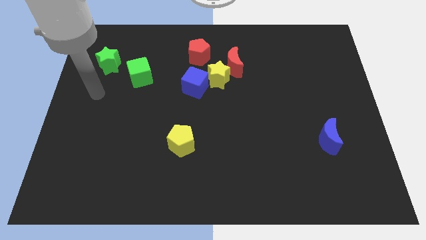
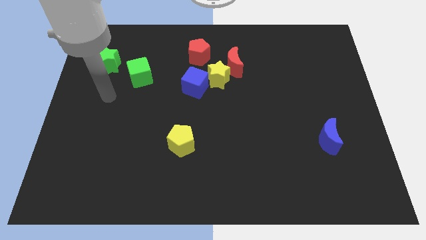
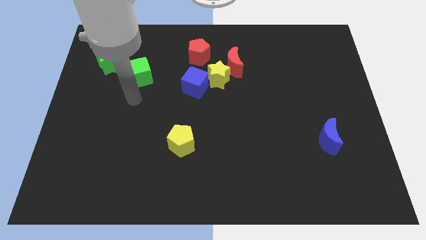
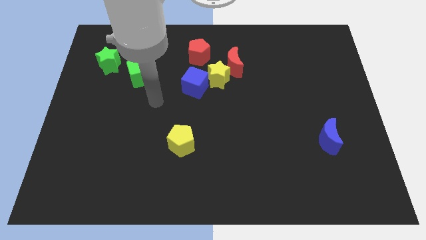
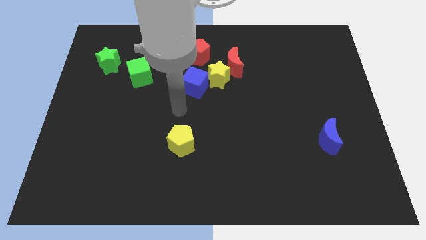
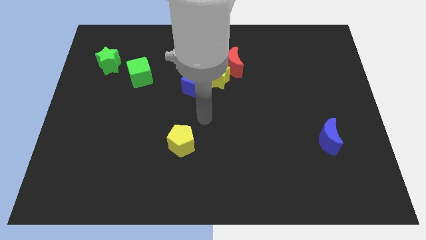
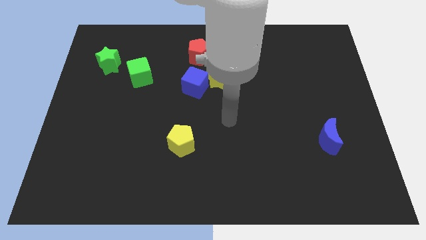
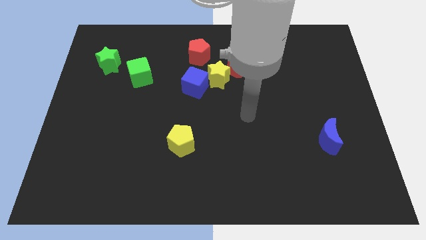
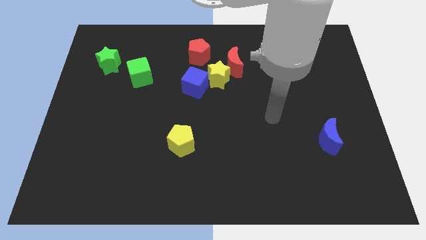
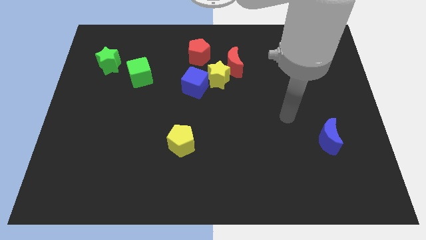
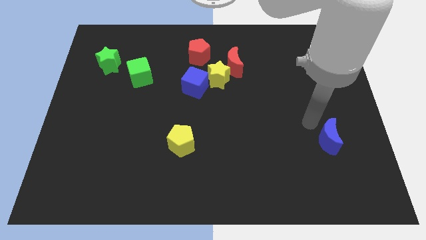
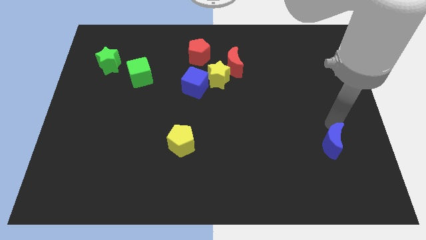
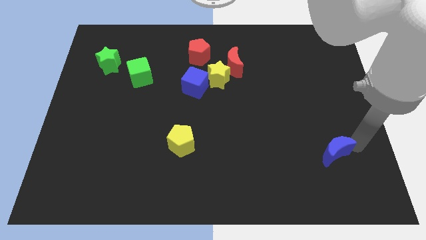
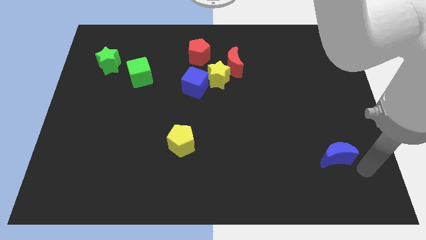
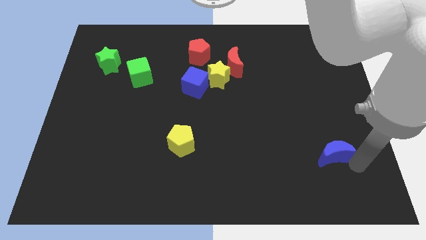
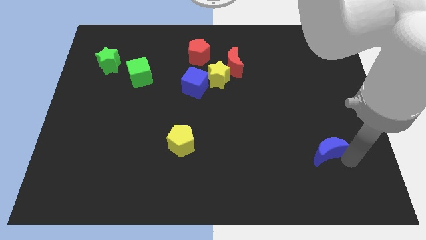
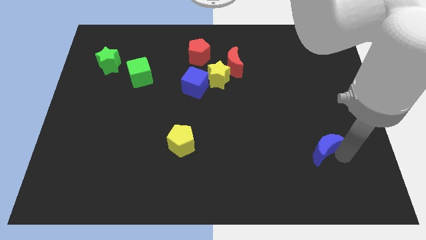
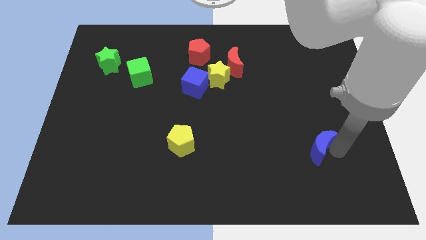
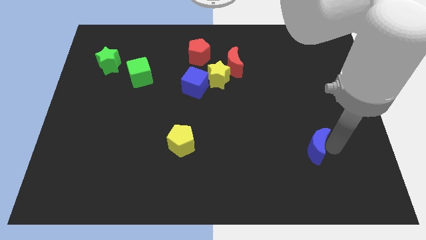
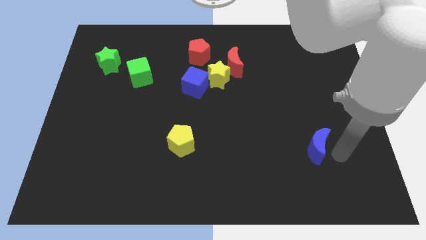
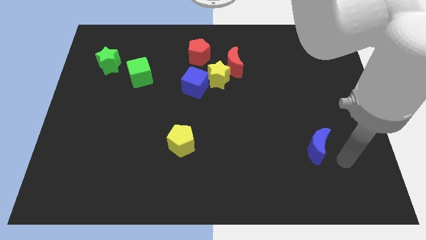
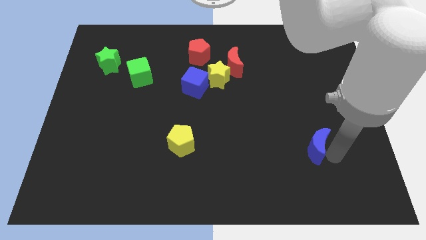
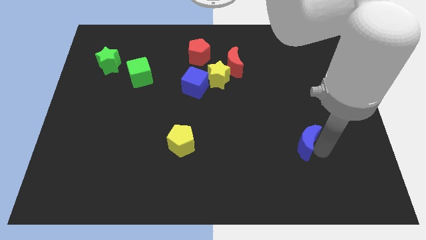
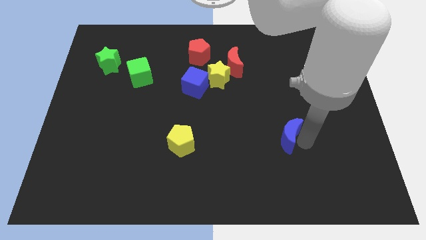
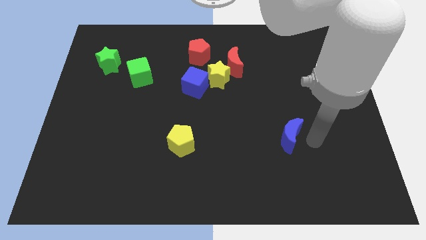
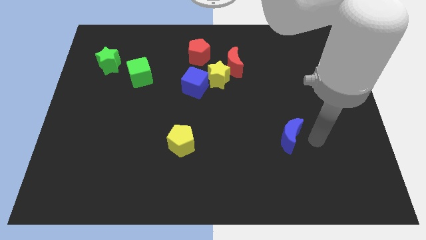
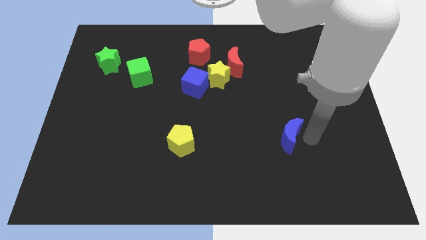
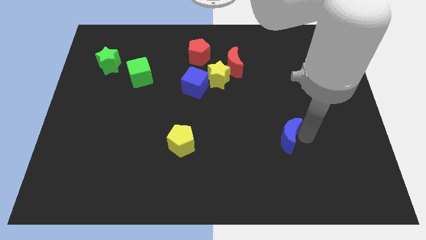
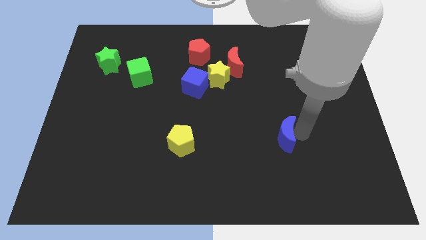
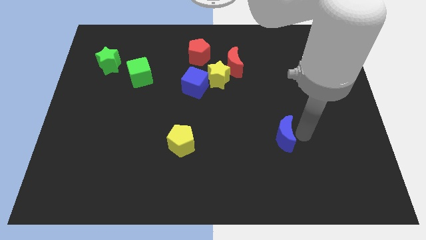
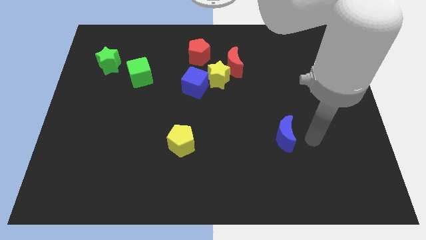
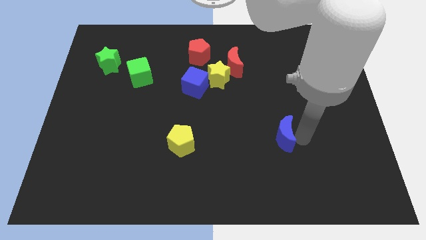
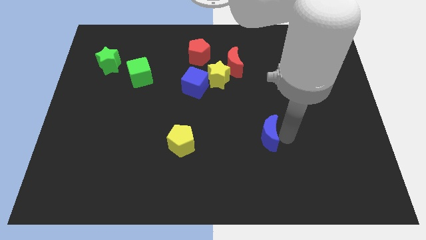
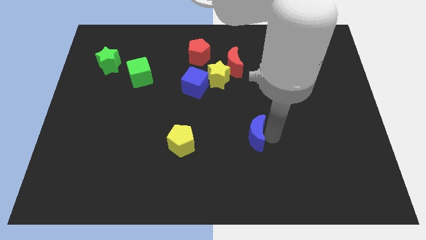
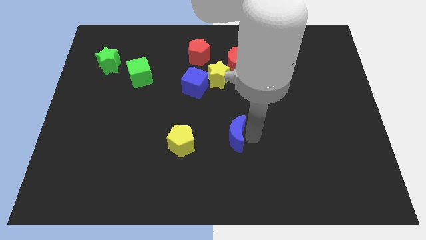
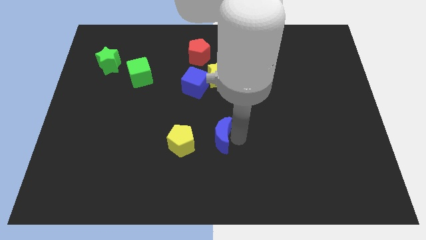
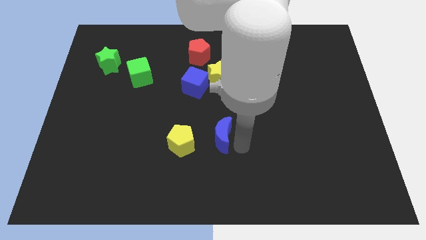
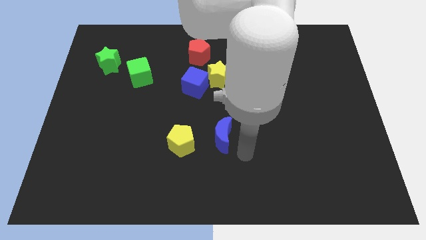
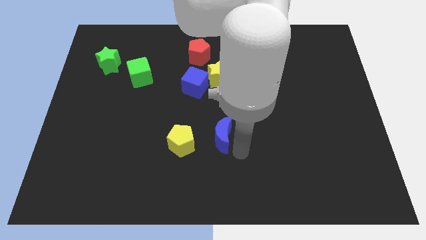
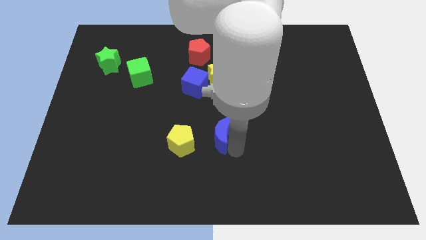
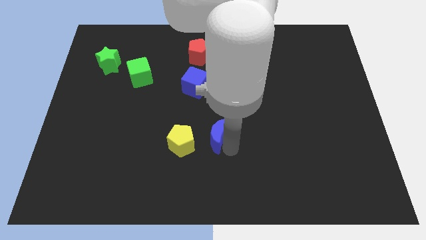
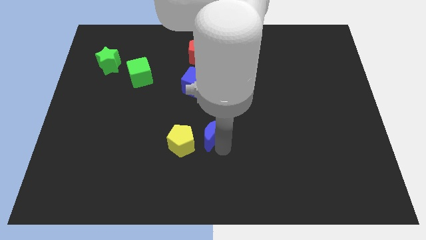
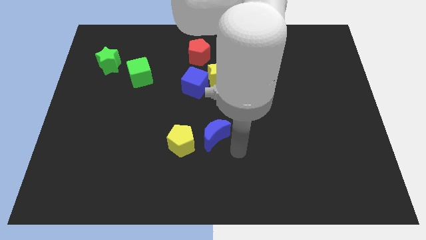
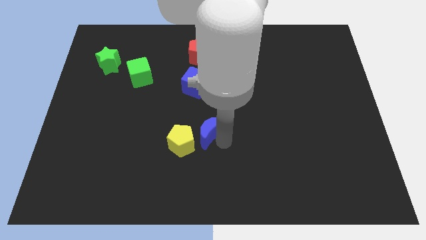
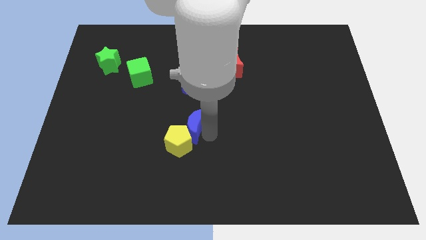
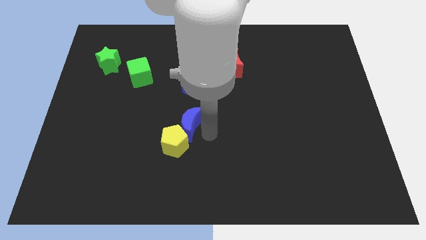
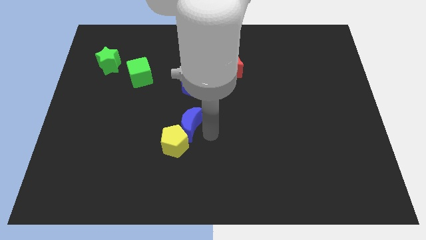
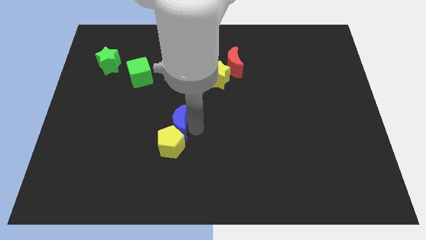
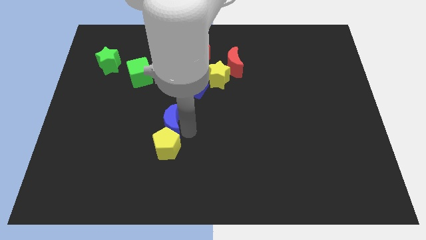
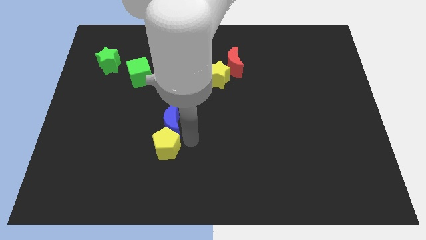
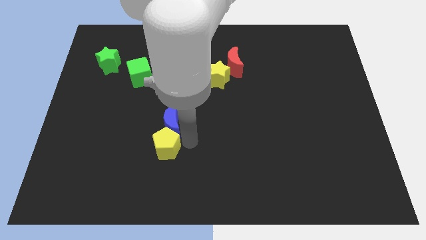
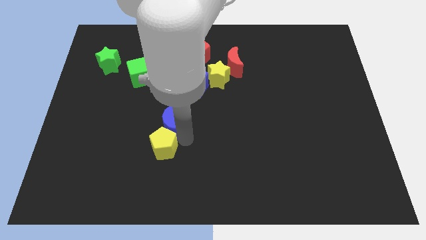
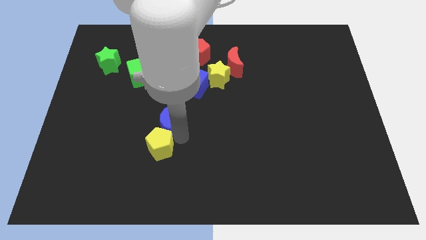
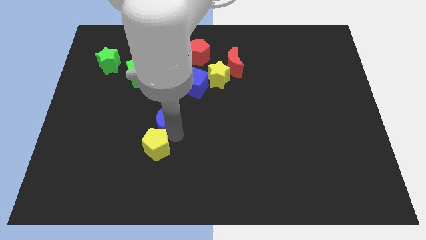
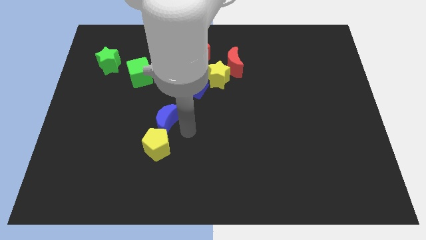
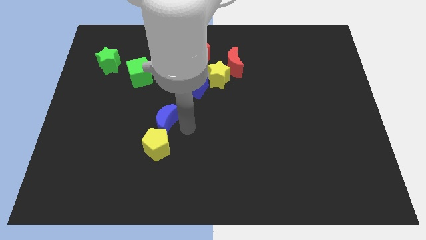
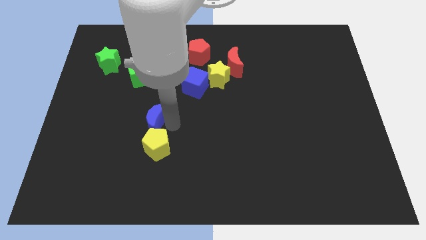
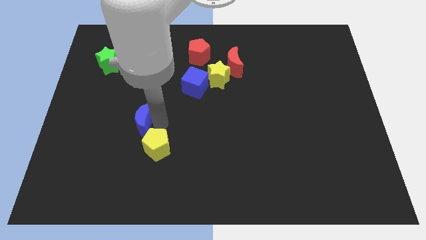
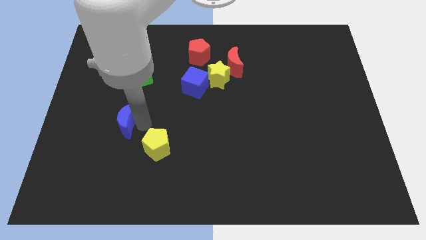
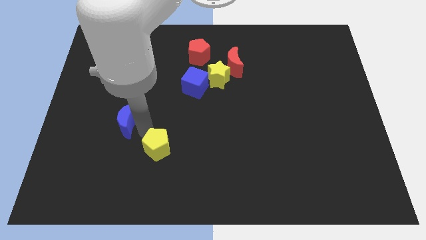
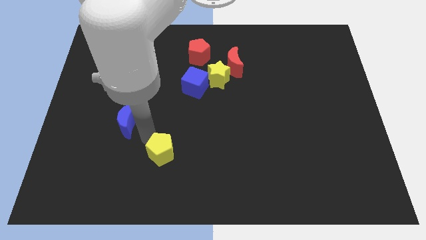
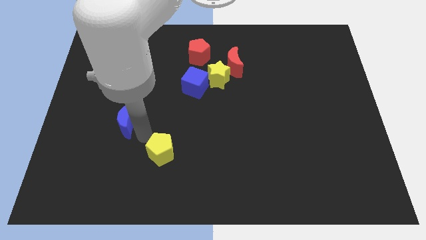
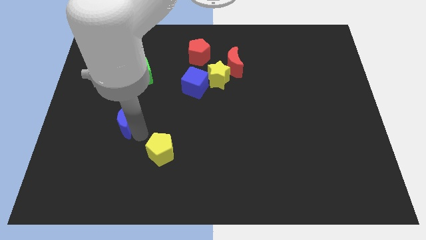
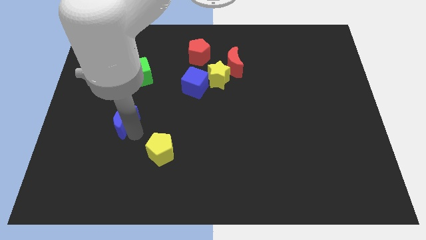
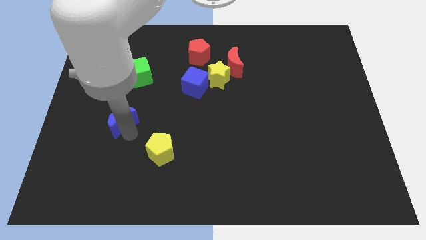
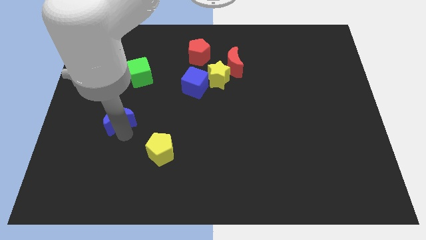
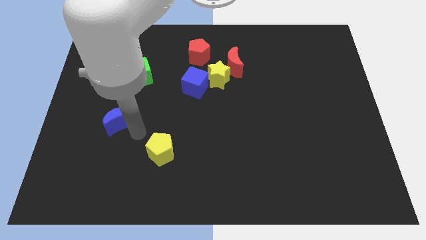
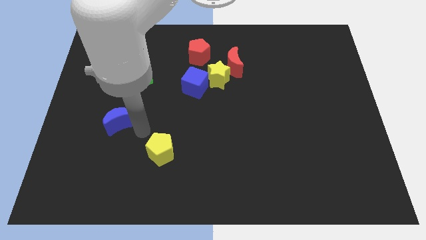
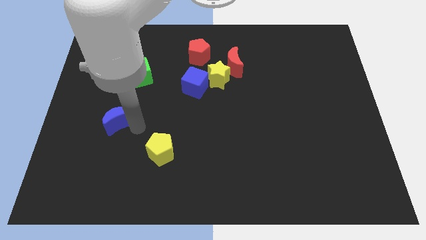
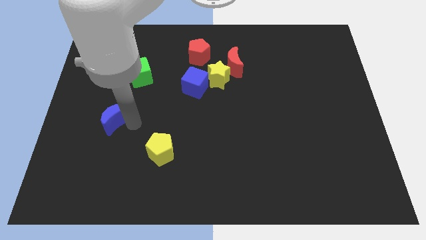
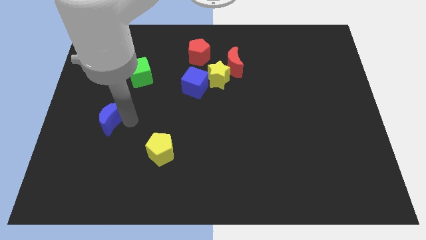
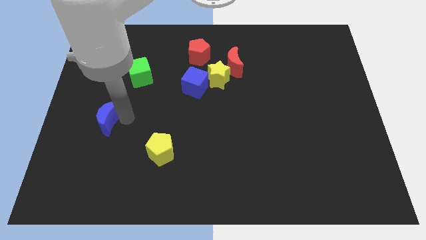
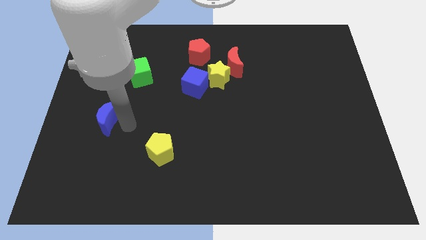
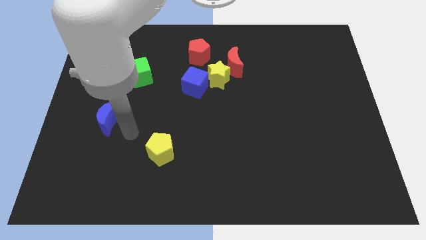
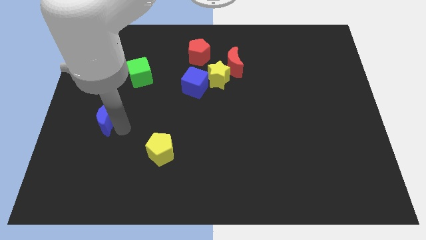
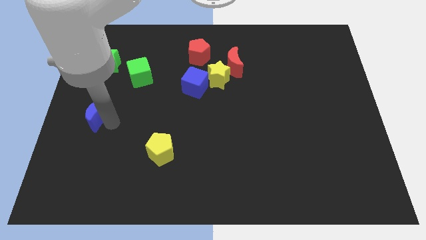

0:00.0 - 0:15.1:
put the blue moon to the left side
